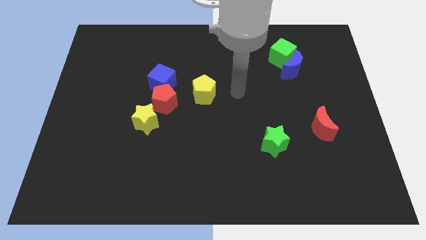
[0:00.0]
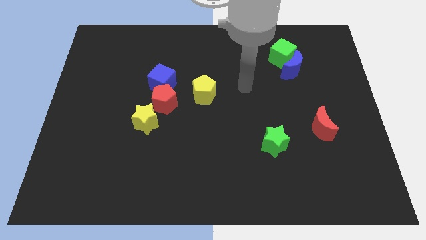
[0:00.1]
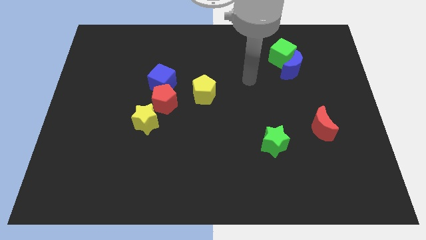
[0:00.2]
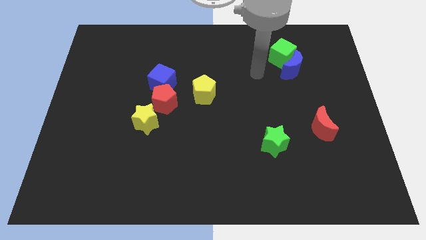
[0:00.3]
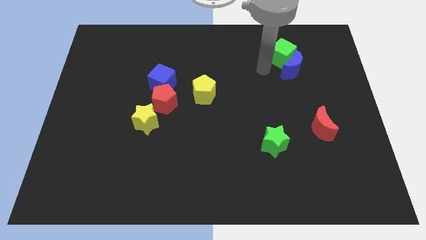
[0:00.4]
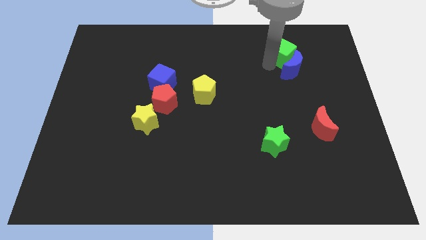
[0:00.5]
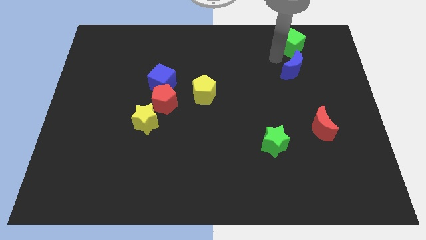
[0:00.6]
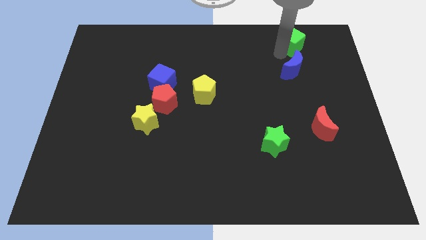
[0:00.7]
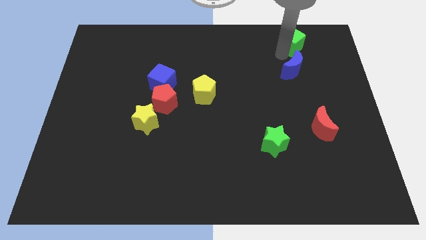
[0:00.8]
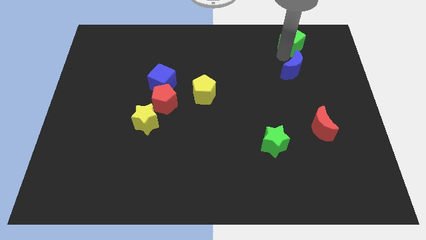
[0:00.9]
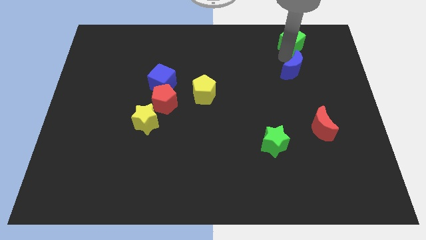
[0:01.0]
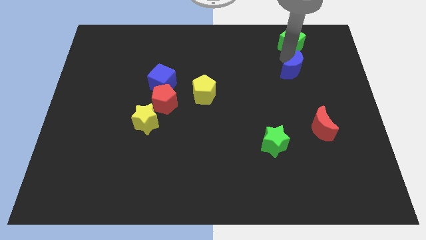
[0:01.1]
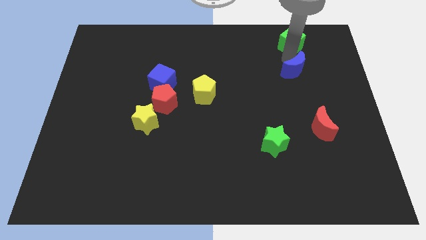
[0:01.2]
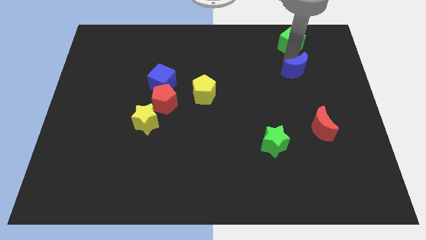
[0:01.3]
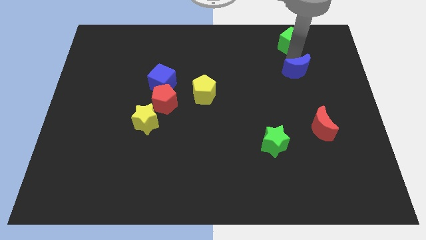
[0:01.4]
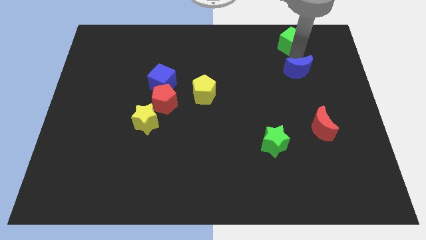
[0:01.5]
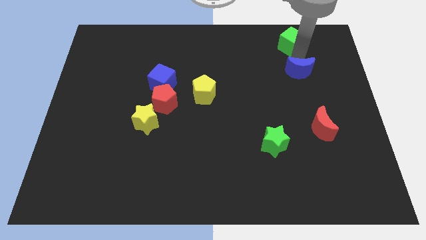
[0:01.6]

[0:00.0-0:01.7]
pull the blue moon apart from the green cube

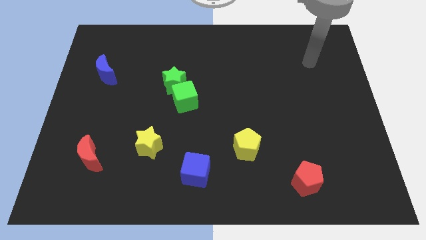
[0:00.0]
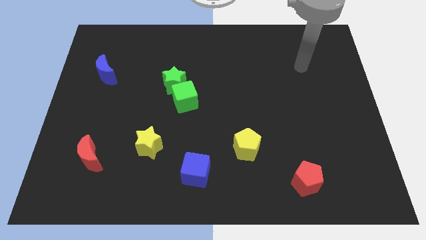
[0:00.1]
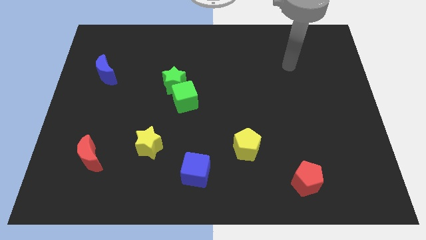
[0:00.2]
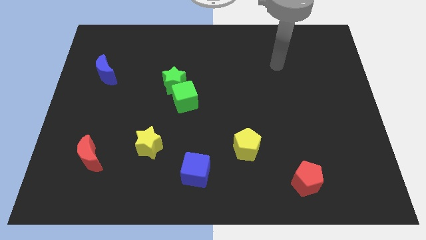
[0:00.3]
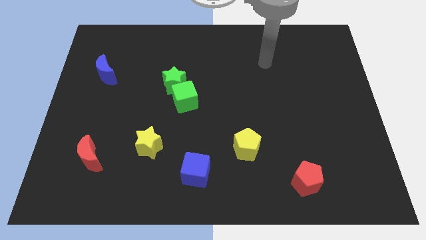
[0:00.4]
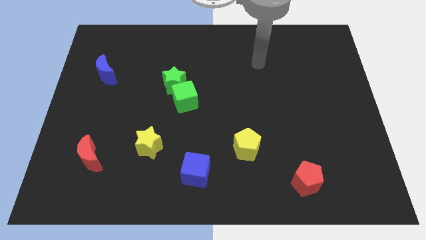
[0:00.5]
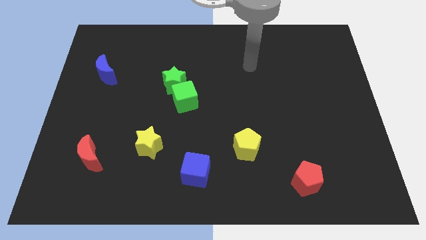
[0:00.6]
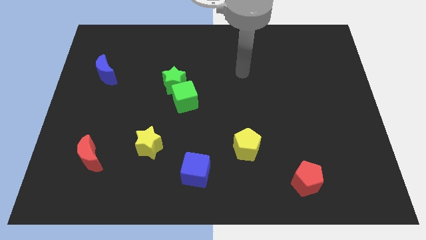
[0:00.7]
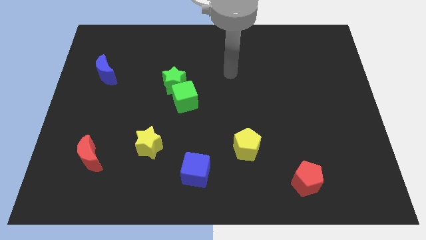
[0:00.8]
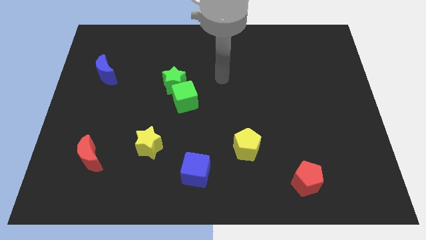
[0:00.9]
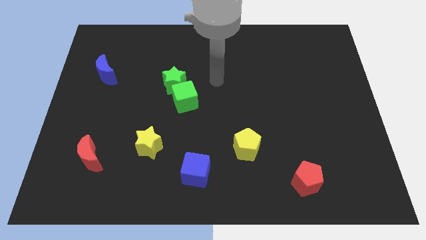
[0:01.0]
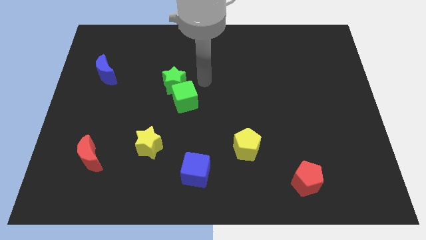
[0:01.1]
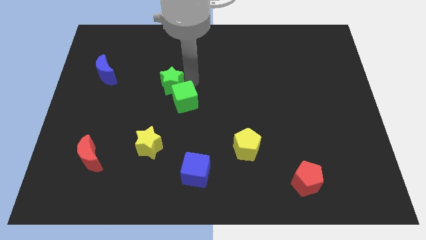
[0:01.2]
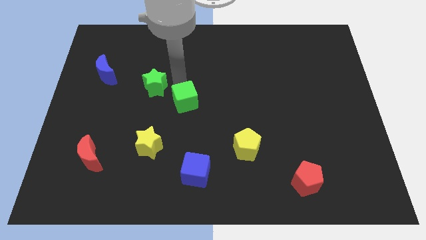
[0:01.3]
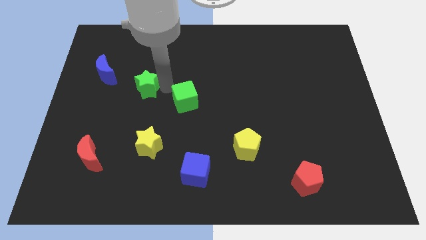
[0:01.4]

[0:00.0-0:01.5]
pull the green cube apart from the green star

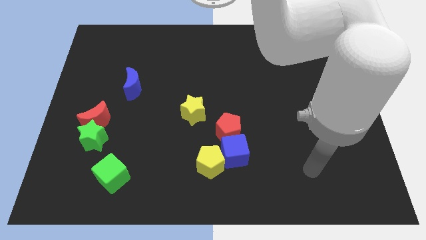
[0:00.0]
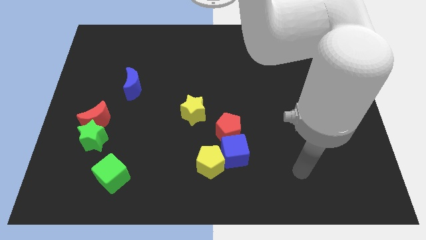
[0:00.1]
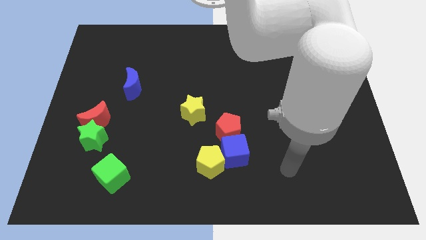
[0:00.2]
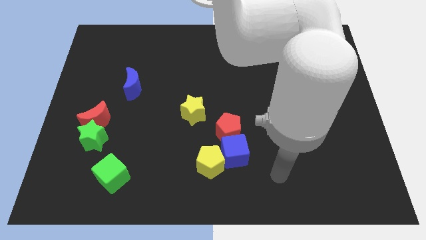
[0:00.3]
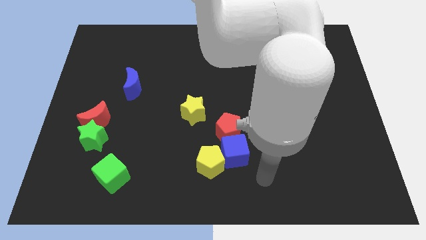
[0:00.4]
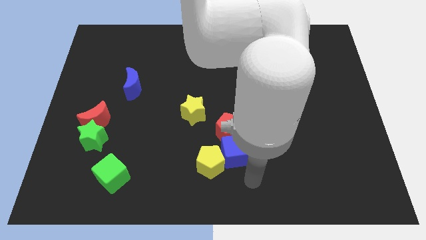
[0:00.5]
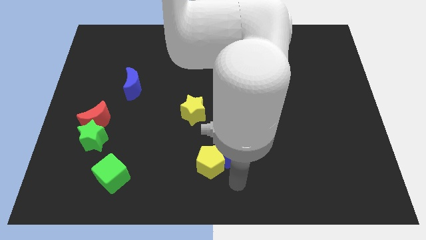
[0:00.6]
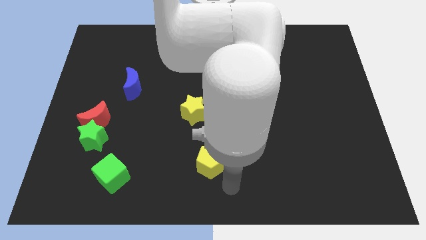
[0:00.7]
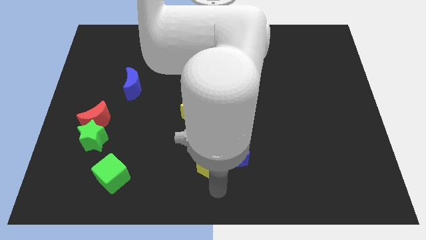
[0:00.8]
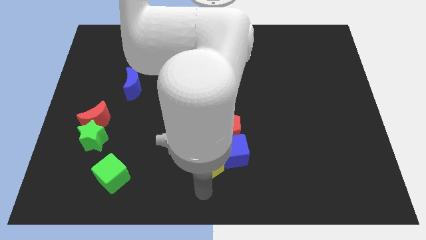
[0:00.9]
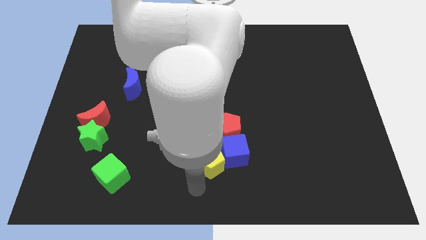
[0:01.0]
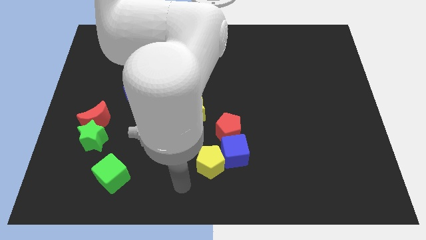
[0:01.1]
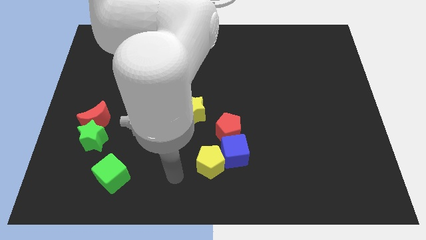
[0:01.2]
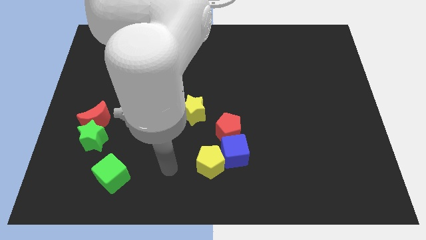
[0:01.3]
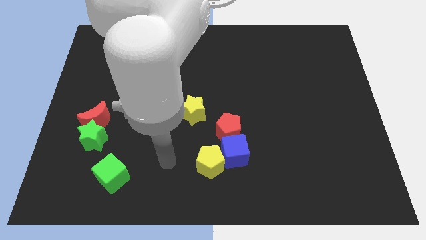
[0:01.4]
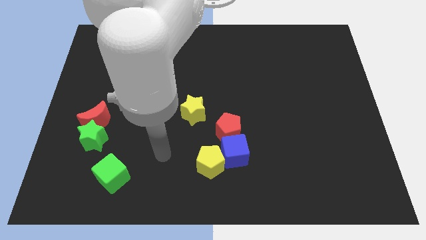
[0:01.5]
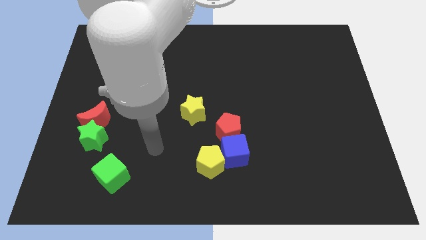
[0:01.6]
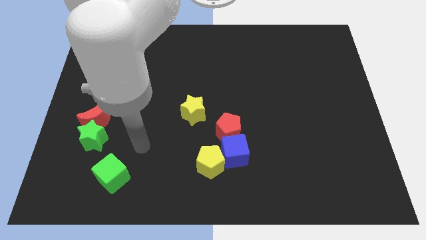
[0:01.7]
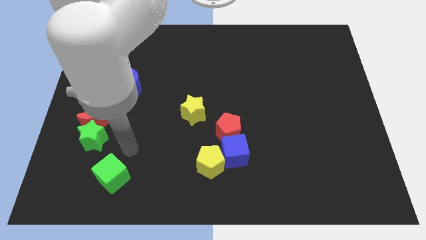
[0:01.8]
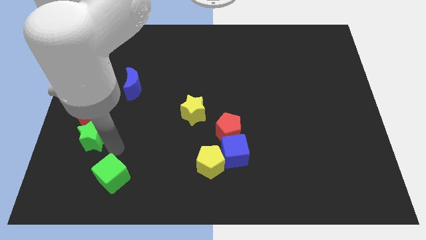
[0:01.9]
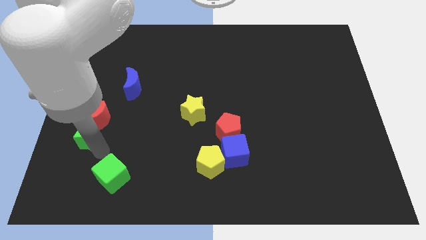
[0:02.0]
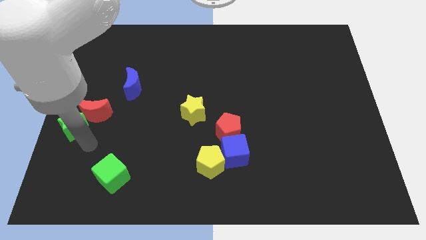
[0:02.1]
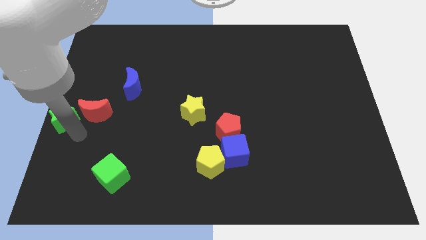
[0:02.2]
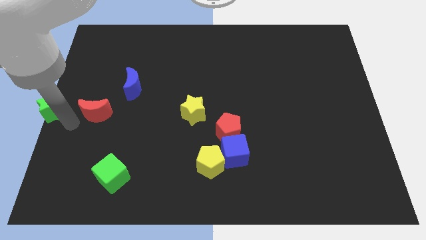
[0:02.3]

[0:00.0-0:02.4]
pull the red moon apart from the green star

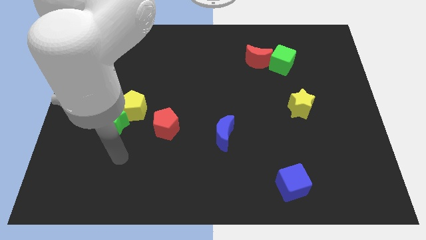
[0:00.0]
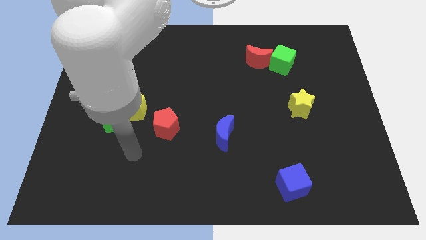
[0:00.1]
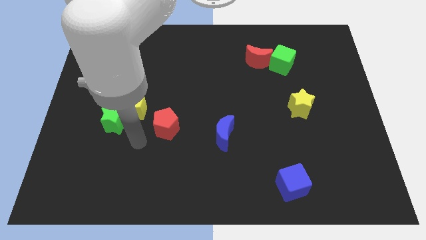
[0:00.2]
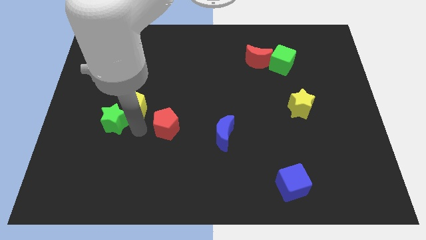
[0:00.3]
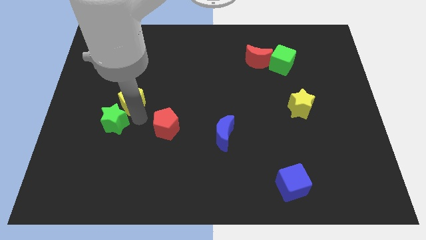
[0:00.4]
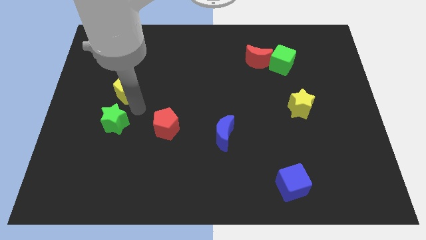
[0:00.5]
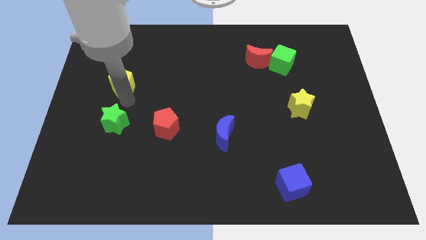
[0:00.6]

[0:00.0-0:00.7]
separate the green star from the yellow pentagon

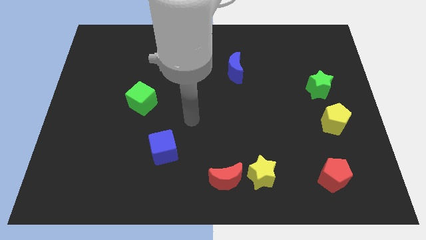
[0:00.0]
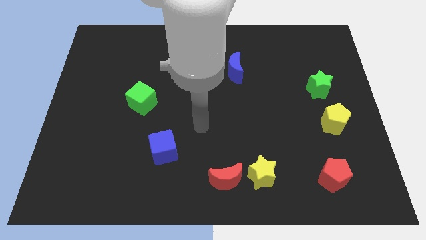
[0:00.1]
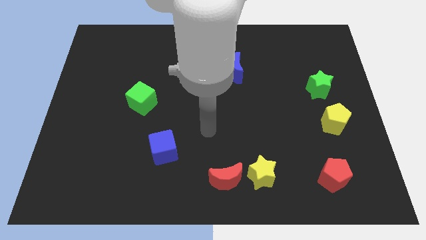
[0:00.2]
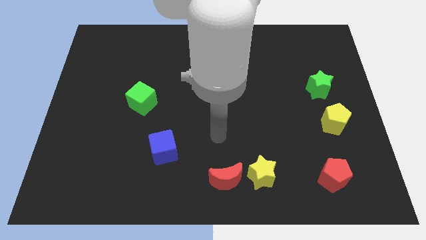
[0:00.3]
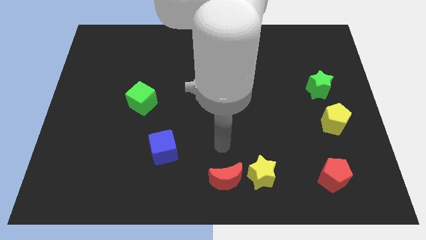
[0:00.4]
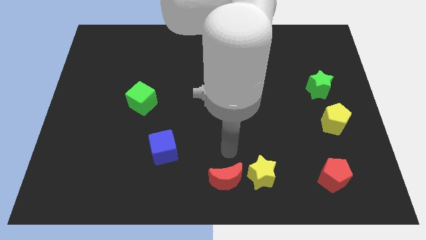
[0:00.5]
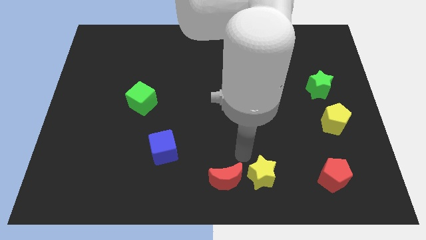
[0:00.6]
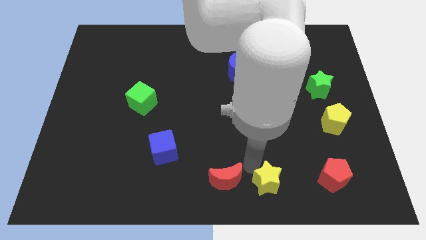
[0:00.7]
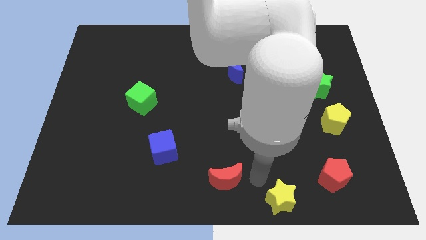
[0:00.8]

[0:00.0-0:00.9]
pull the red moon apart from the yellow star

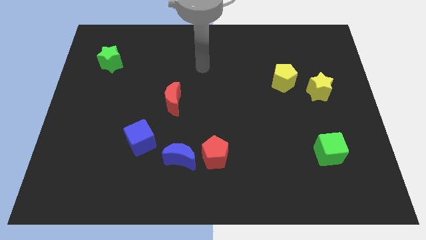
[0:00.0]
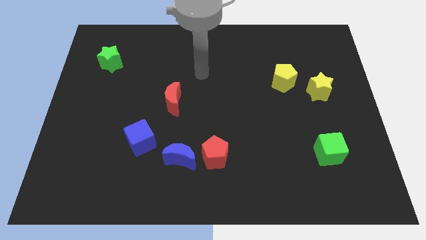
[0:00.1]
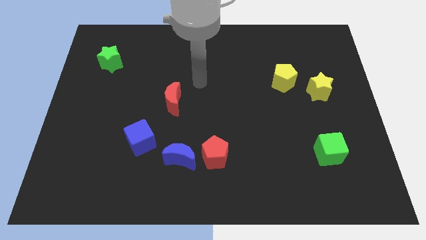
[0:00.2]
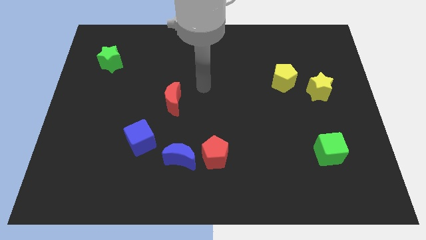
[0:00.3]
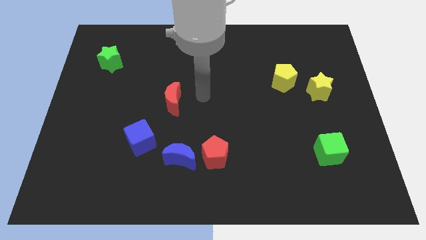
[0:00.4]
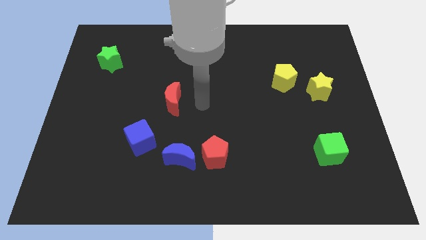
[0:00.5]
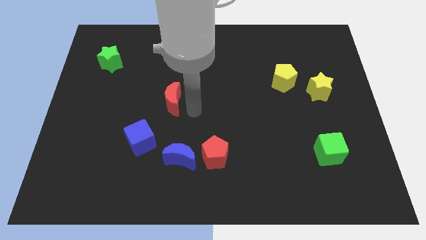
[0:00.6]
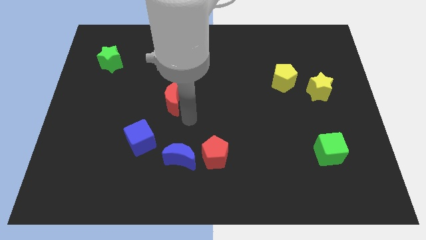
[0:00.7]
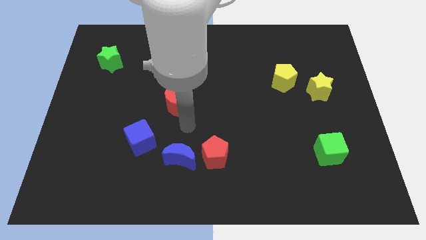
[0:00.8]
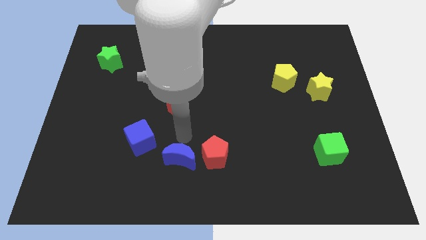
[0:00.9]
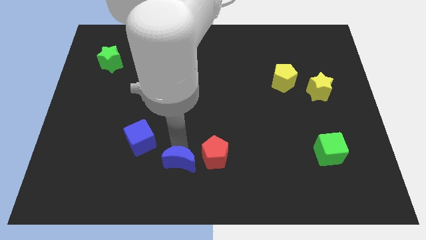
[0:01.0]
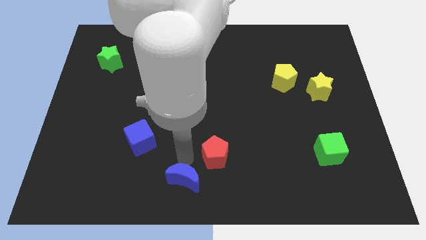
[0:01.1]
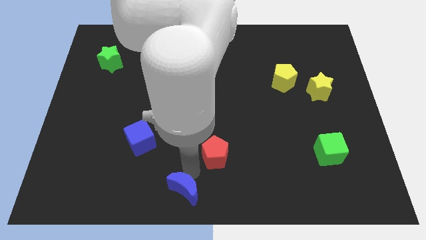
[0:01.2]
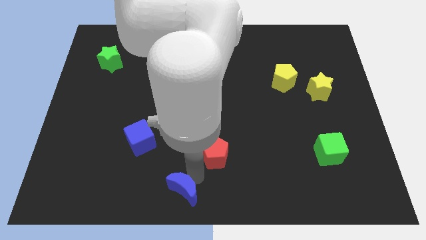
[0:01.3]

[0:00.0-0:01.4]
pull the red pentagon apart from the blue moon

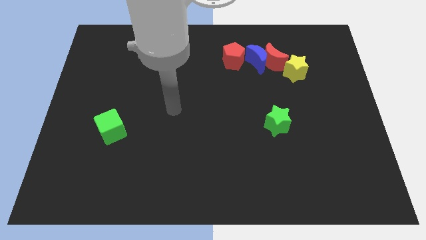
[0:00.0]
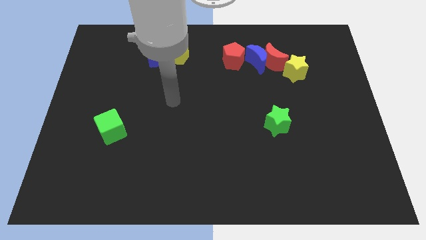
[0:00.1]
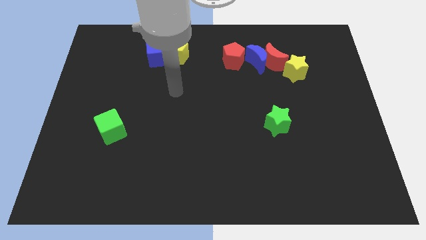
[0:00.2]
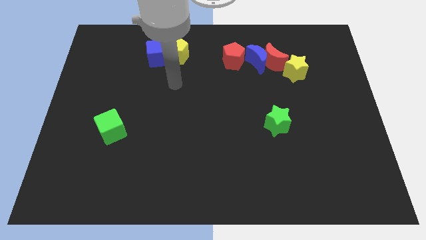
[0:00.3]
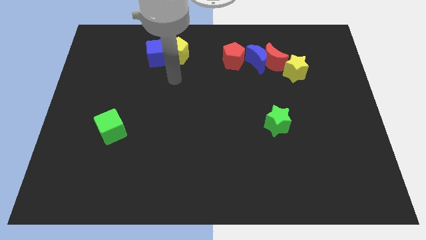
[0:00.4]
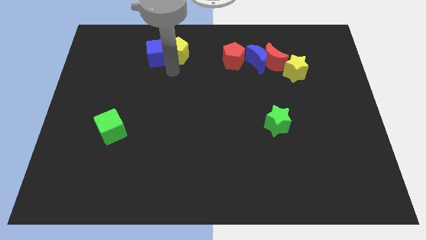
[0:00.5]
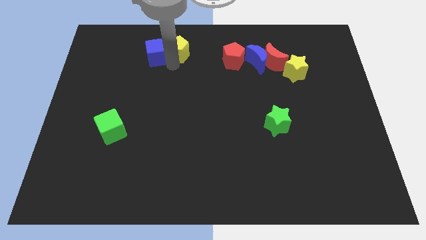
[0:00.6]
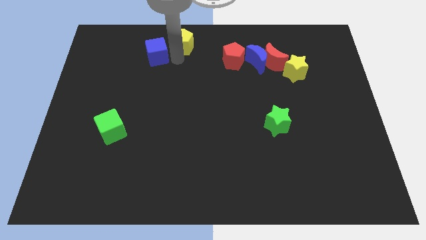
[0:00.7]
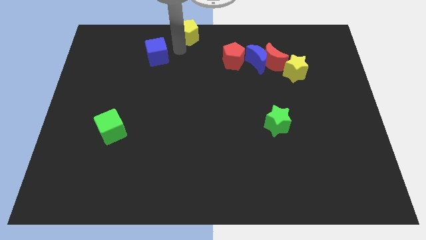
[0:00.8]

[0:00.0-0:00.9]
move the blue cube away from the yellow pentagon
